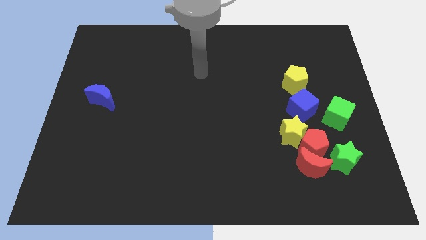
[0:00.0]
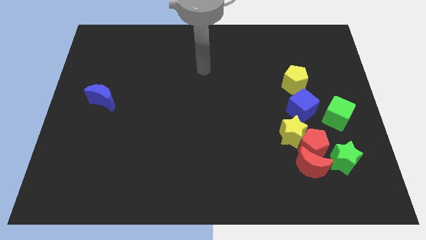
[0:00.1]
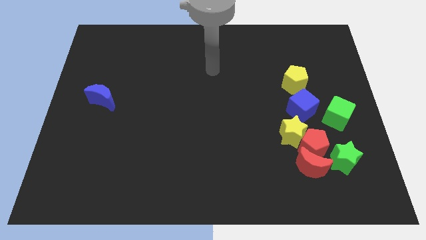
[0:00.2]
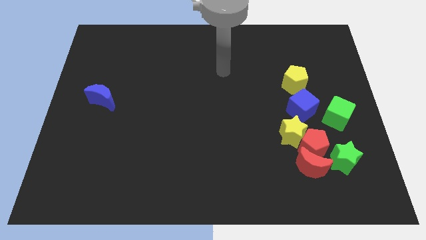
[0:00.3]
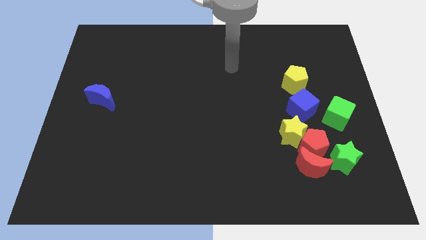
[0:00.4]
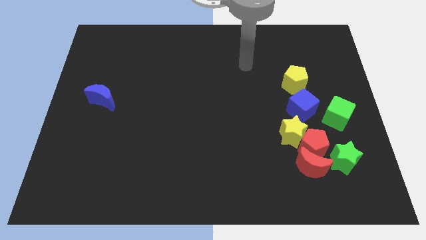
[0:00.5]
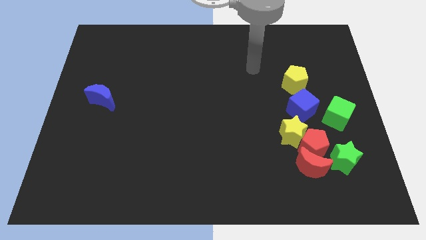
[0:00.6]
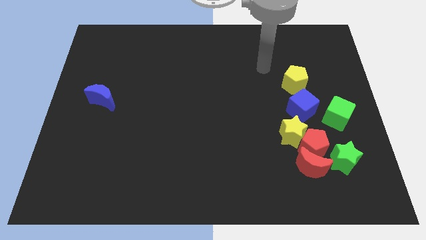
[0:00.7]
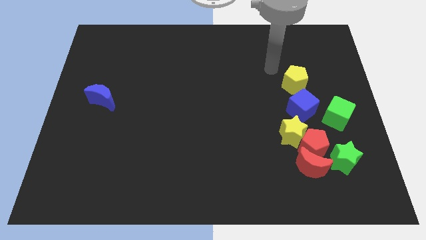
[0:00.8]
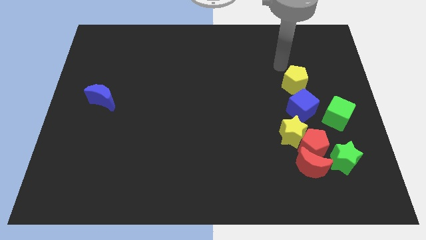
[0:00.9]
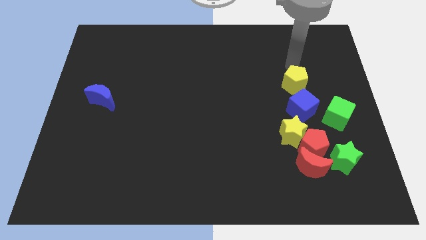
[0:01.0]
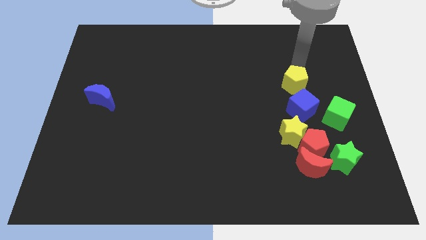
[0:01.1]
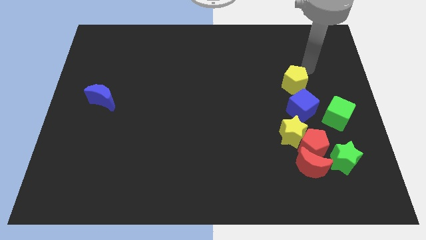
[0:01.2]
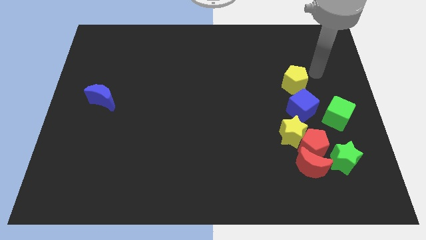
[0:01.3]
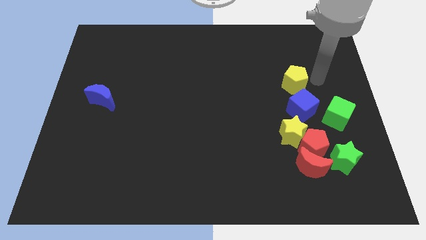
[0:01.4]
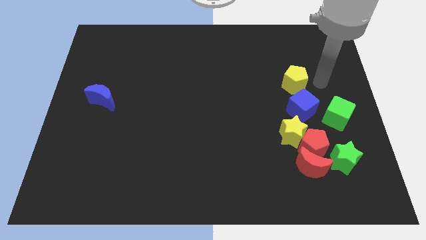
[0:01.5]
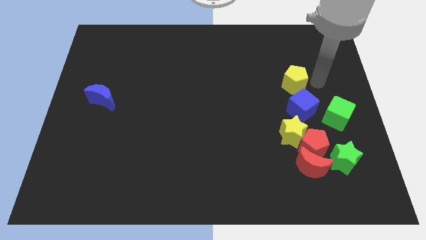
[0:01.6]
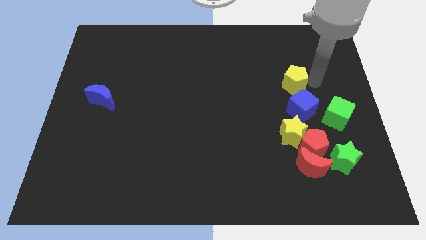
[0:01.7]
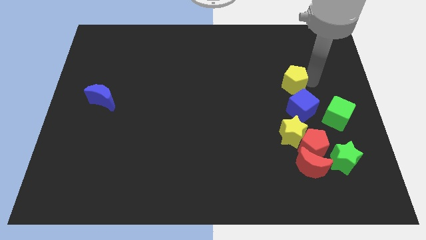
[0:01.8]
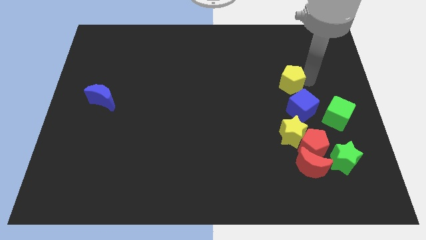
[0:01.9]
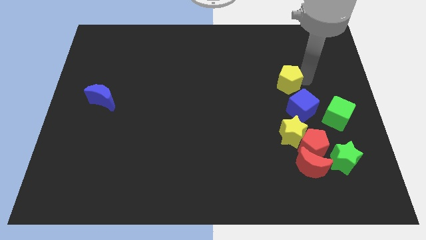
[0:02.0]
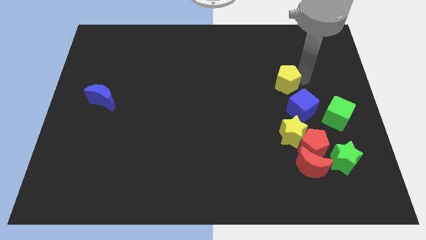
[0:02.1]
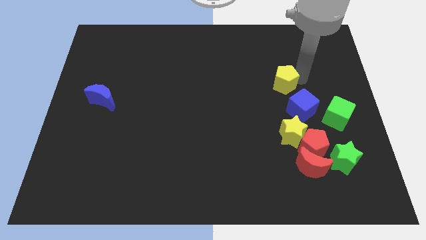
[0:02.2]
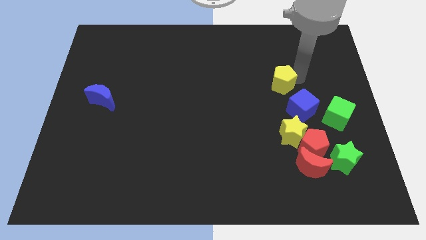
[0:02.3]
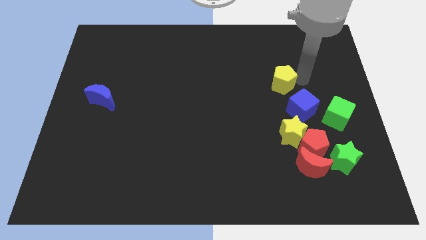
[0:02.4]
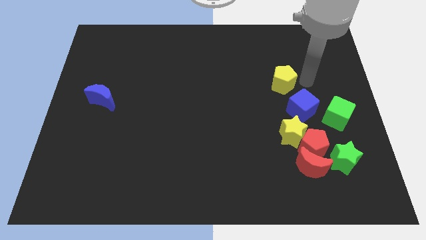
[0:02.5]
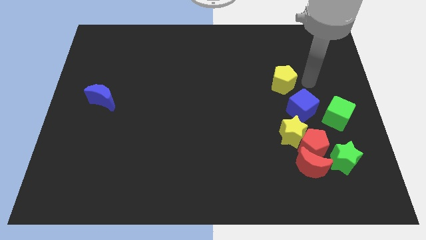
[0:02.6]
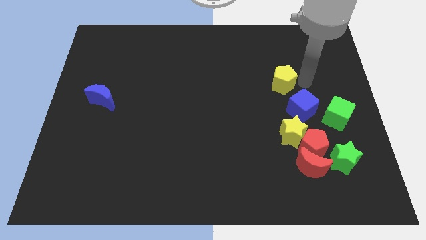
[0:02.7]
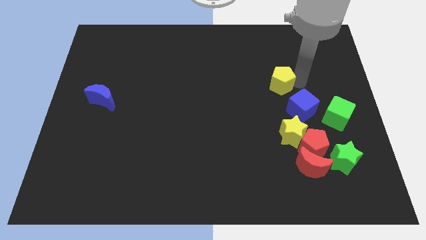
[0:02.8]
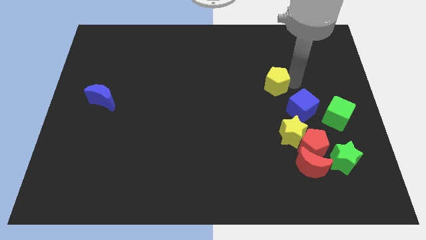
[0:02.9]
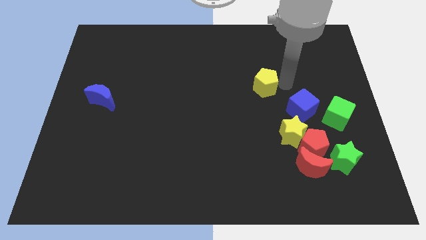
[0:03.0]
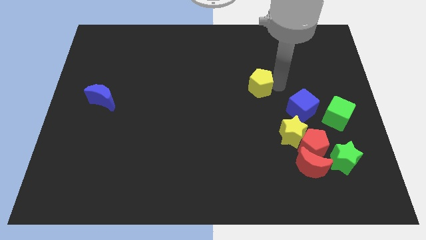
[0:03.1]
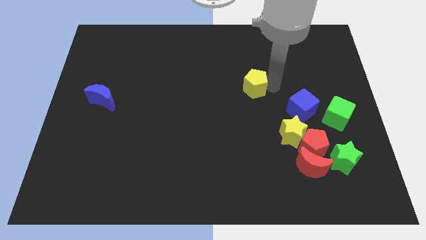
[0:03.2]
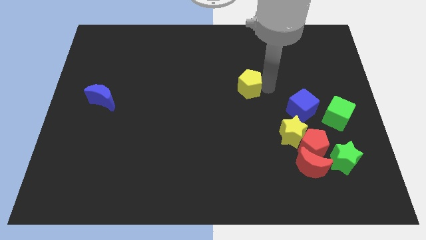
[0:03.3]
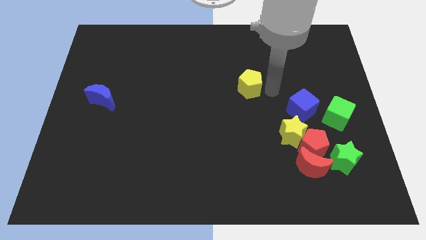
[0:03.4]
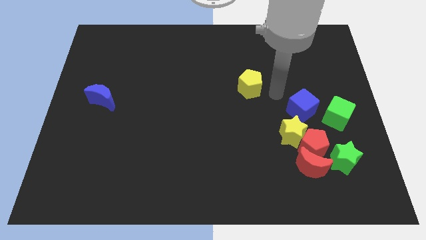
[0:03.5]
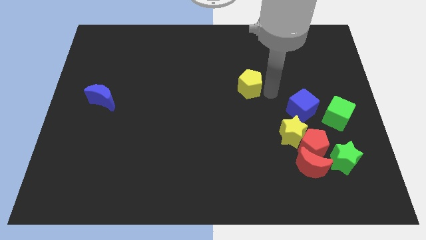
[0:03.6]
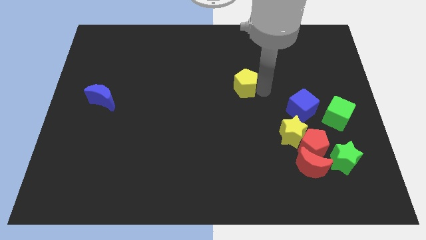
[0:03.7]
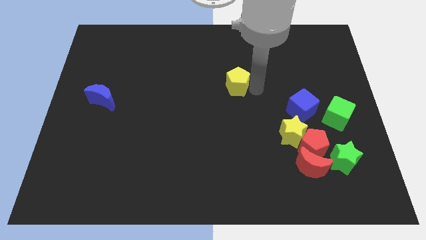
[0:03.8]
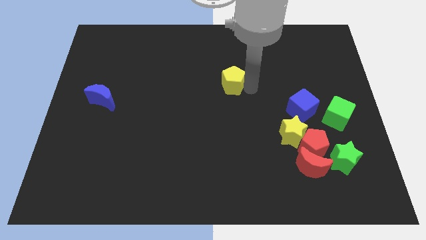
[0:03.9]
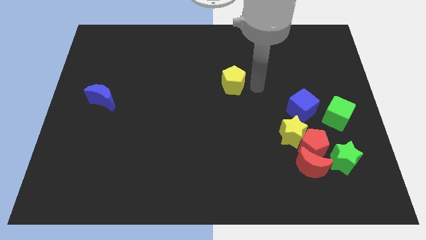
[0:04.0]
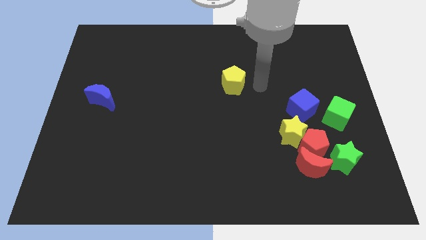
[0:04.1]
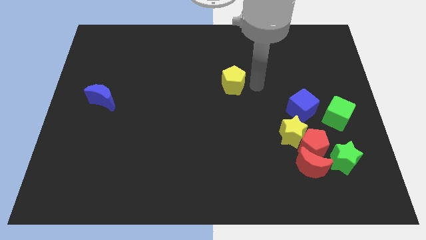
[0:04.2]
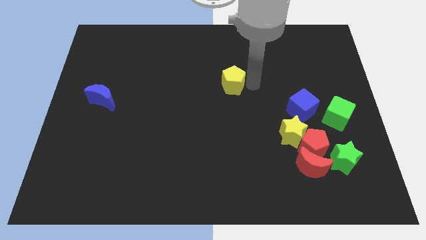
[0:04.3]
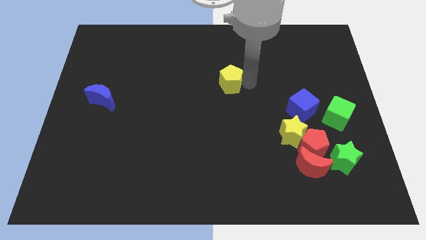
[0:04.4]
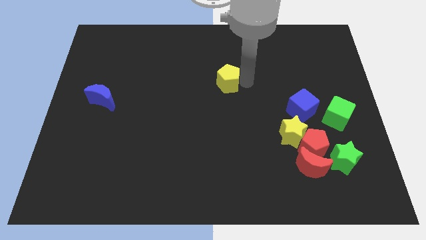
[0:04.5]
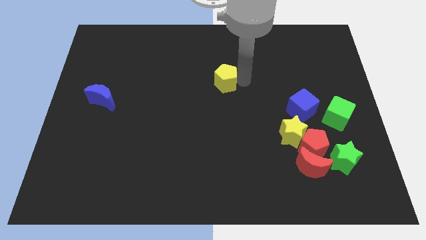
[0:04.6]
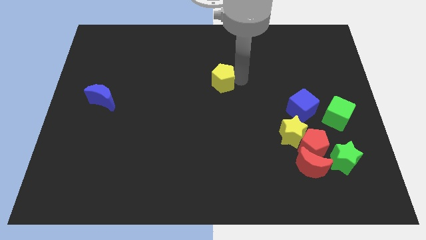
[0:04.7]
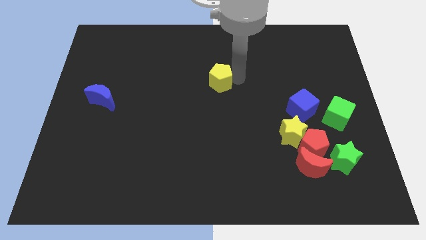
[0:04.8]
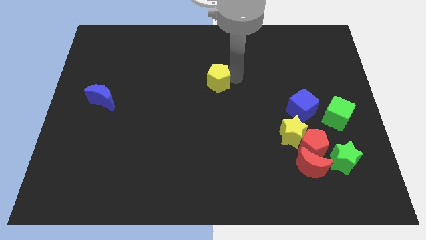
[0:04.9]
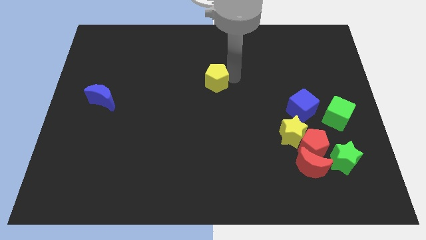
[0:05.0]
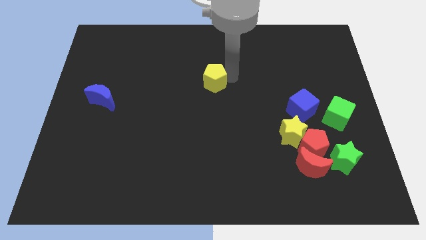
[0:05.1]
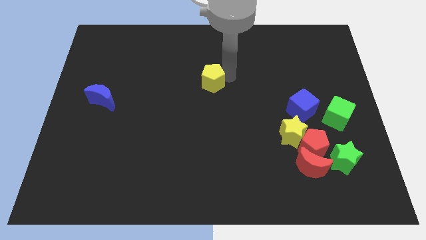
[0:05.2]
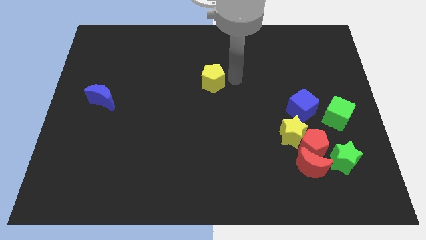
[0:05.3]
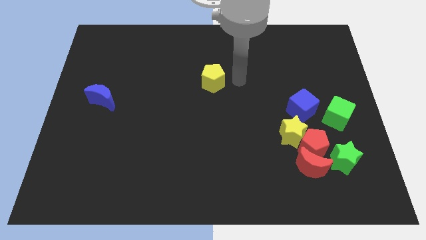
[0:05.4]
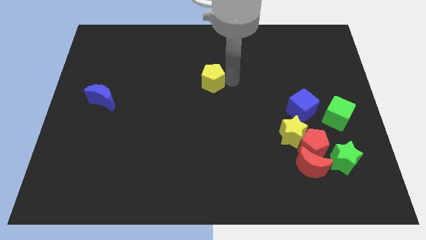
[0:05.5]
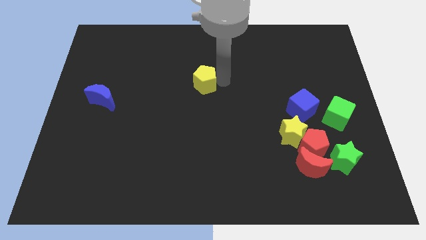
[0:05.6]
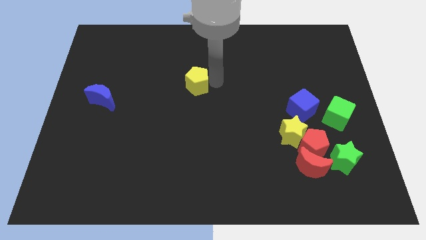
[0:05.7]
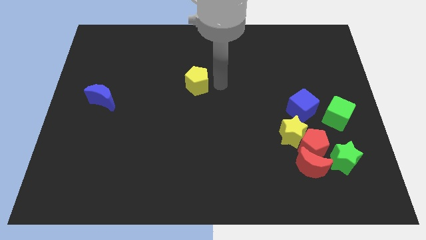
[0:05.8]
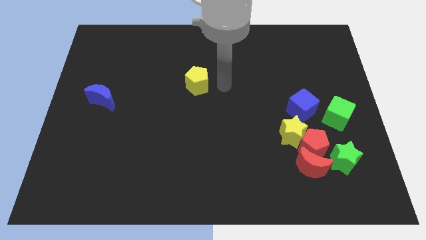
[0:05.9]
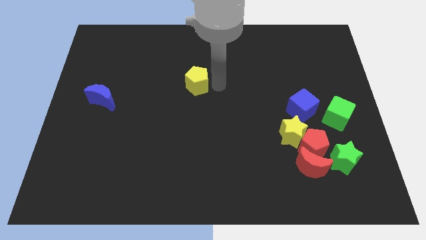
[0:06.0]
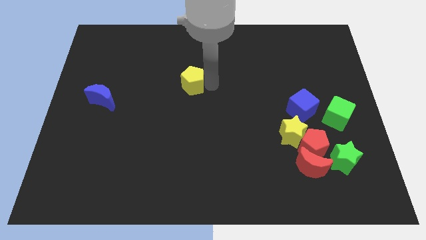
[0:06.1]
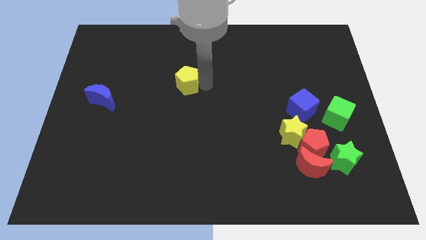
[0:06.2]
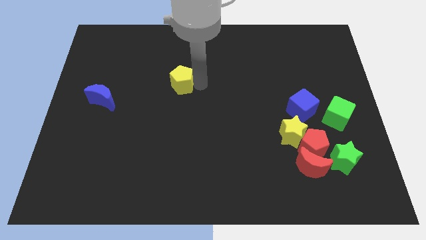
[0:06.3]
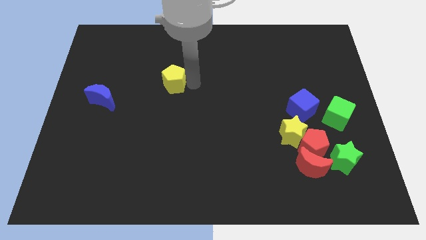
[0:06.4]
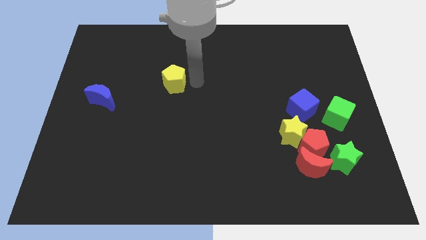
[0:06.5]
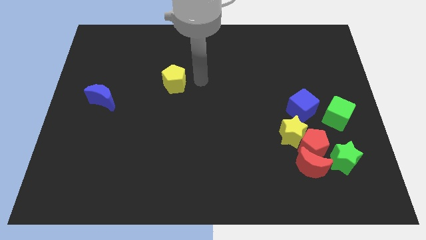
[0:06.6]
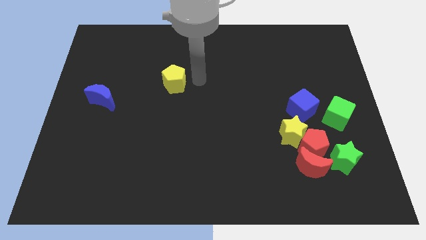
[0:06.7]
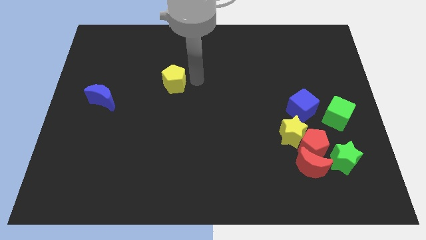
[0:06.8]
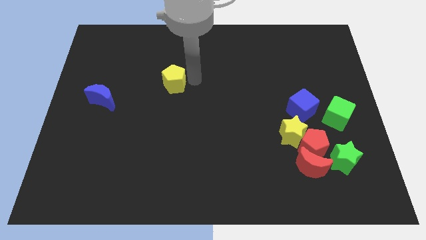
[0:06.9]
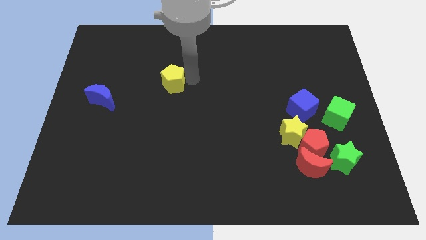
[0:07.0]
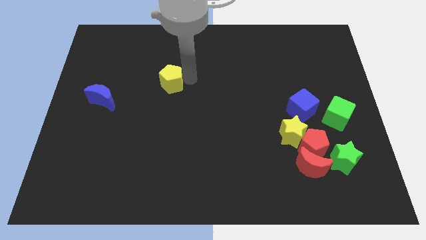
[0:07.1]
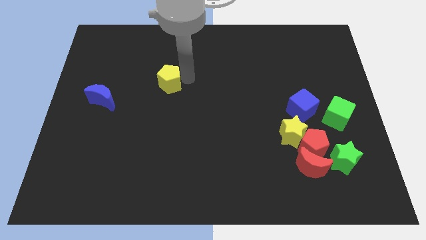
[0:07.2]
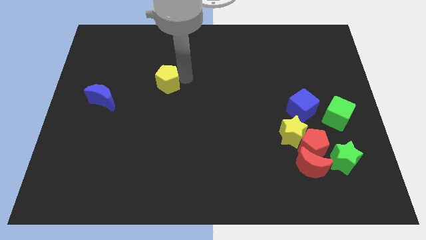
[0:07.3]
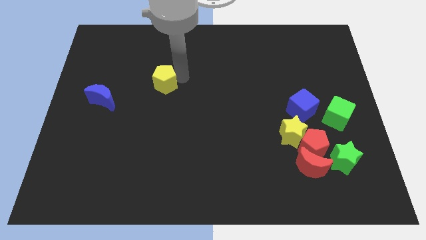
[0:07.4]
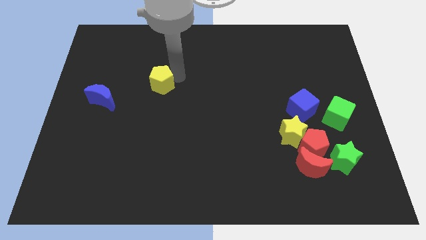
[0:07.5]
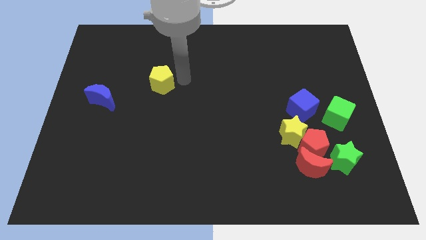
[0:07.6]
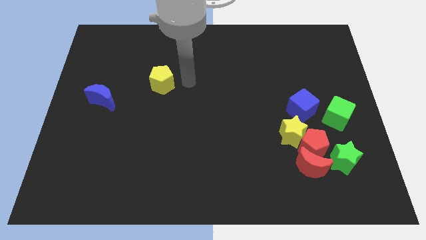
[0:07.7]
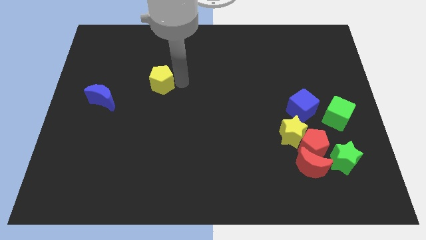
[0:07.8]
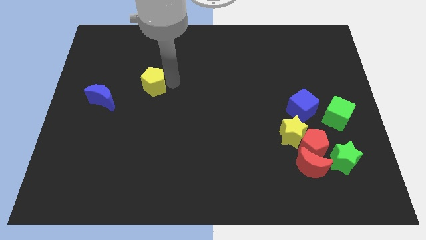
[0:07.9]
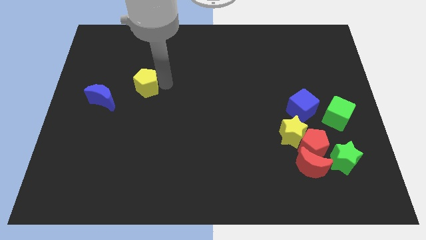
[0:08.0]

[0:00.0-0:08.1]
move the yellow pentagon diagonally up and to the right of the blue moon
